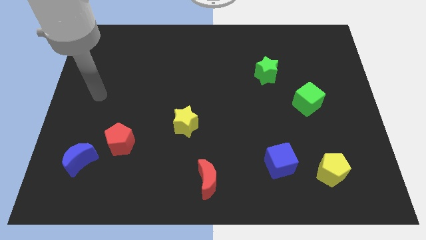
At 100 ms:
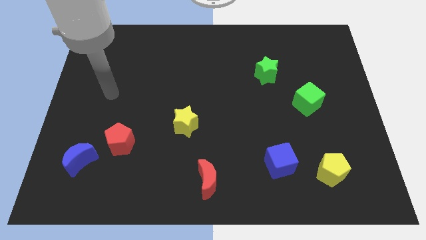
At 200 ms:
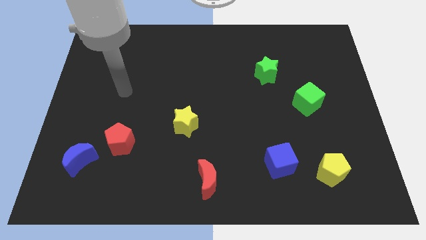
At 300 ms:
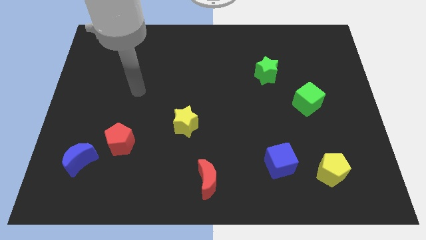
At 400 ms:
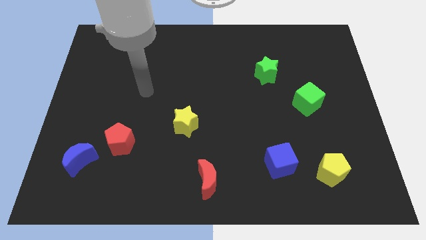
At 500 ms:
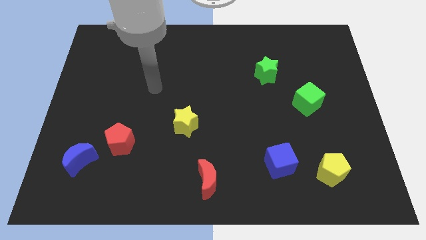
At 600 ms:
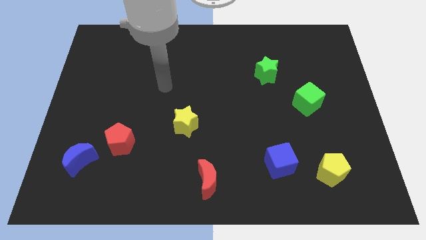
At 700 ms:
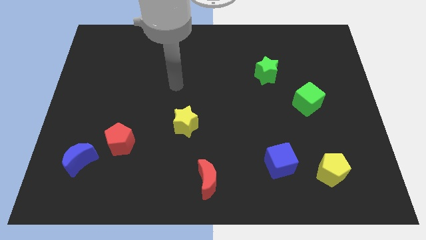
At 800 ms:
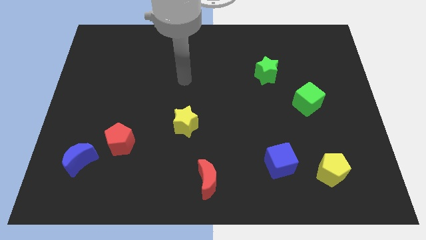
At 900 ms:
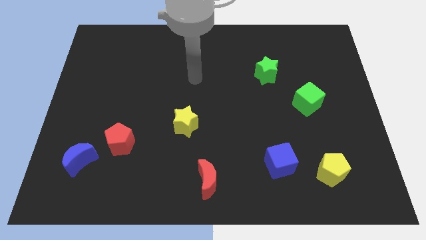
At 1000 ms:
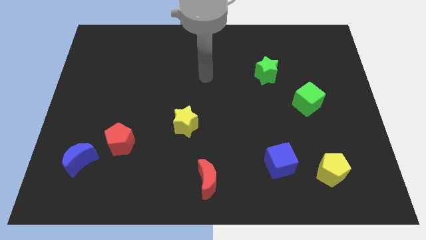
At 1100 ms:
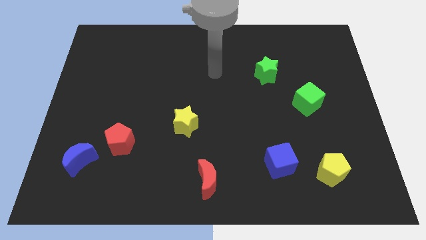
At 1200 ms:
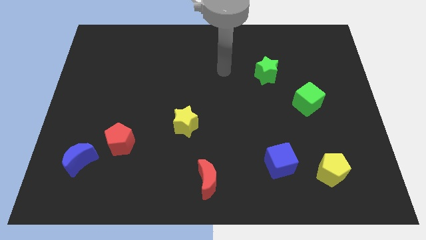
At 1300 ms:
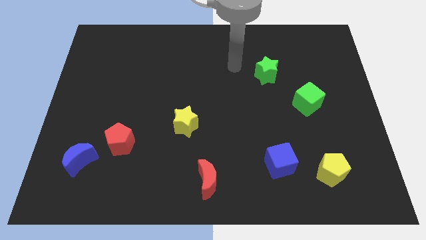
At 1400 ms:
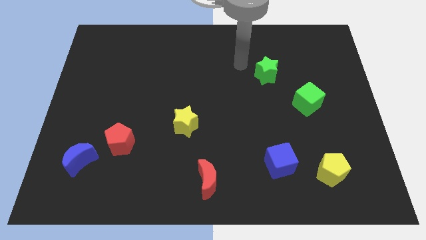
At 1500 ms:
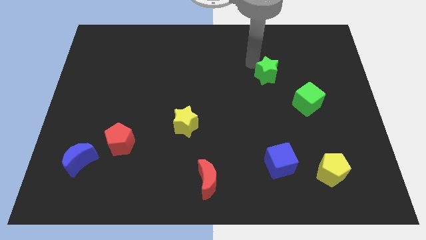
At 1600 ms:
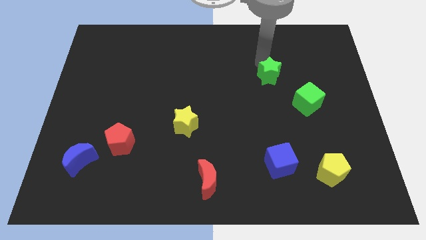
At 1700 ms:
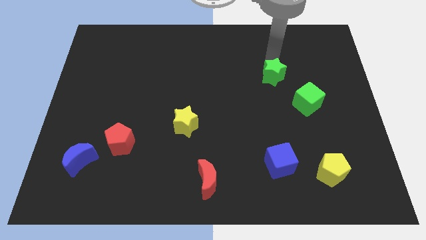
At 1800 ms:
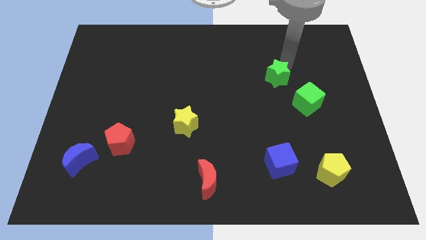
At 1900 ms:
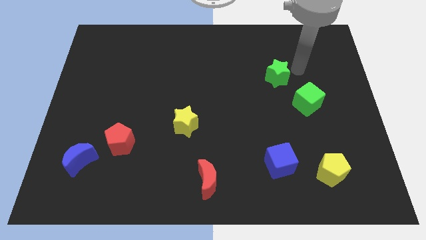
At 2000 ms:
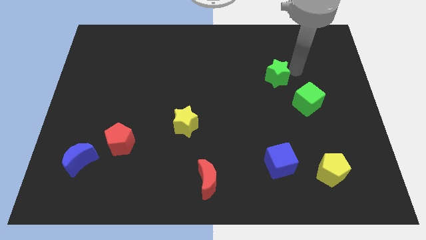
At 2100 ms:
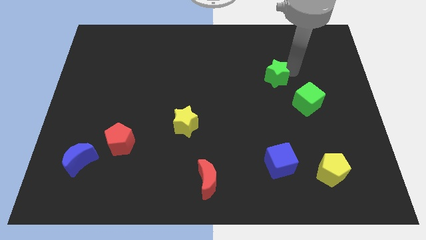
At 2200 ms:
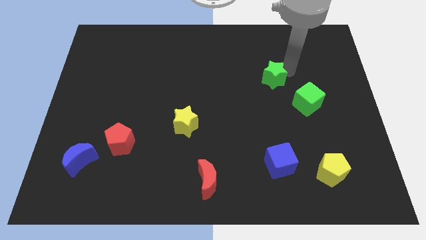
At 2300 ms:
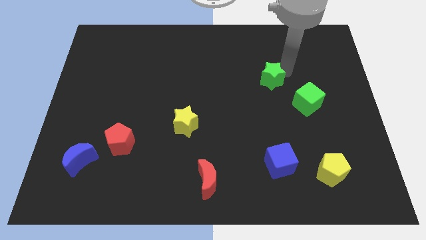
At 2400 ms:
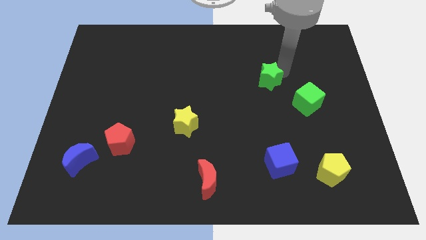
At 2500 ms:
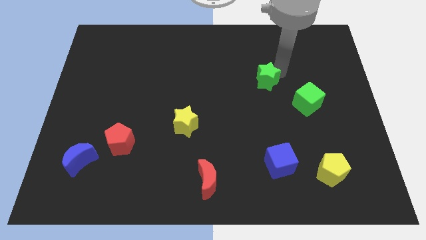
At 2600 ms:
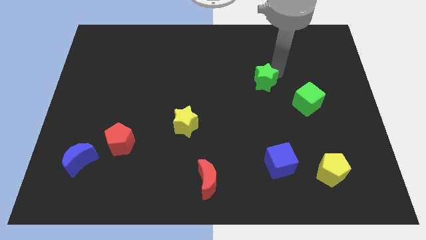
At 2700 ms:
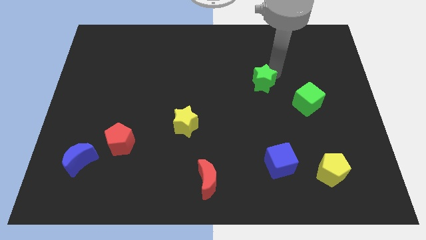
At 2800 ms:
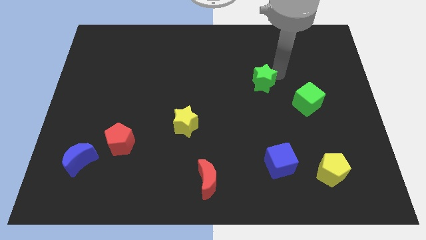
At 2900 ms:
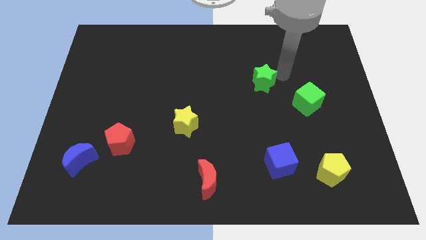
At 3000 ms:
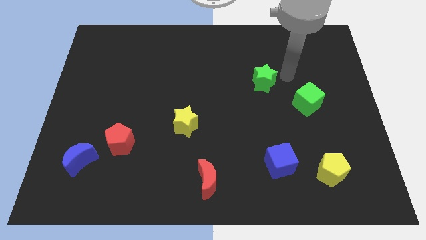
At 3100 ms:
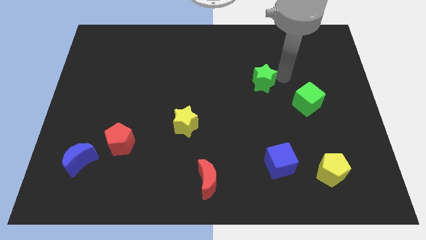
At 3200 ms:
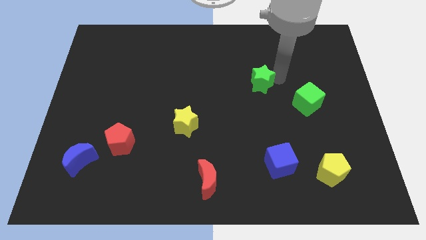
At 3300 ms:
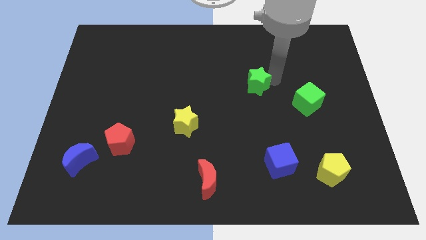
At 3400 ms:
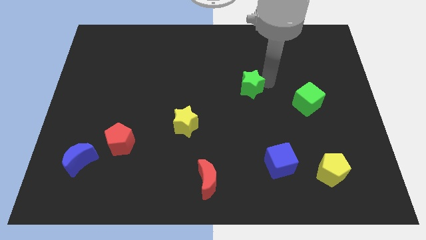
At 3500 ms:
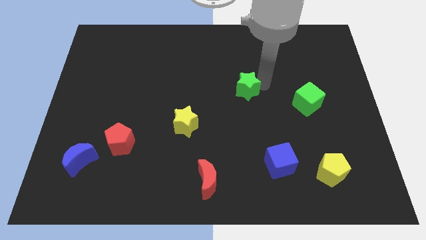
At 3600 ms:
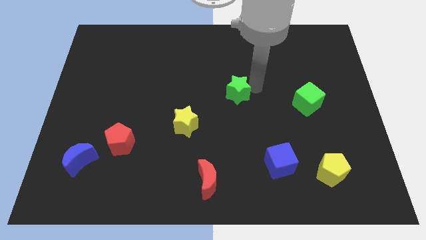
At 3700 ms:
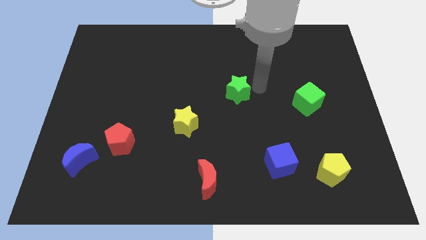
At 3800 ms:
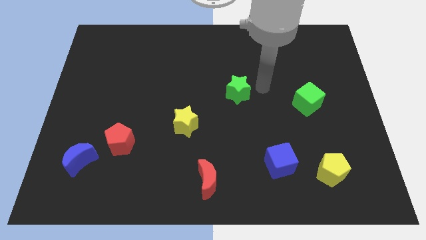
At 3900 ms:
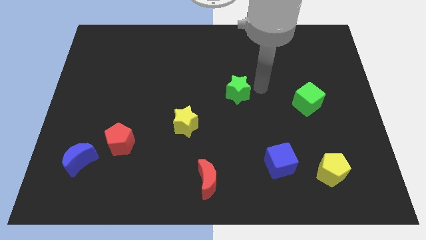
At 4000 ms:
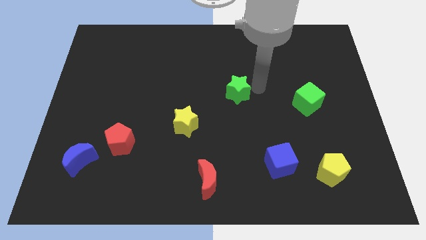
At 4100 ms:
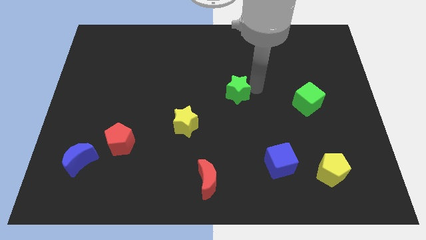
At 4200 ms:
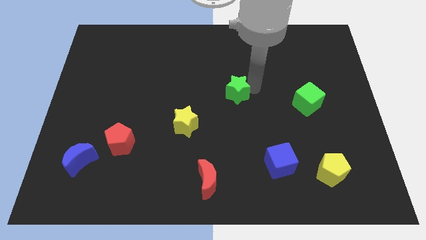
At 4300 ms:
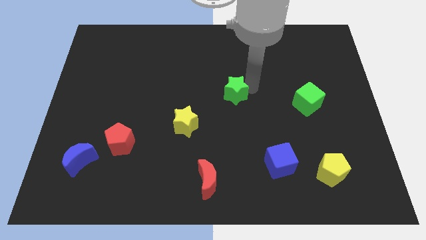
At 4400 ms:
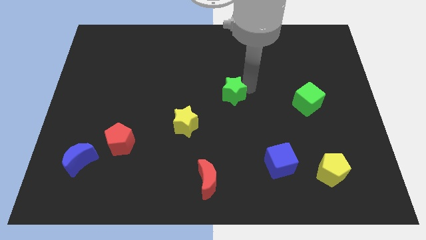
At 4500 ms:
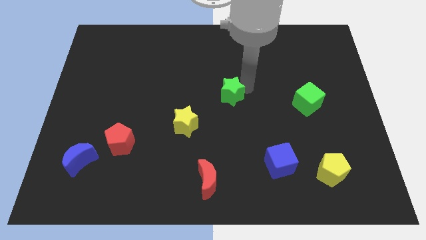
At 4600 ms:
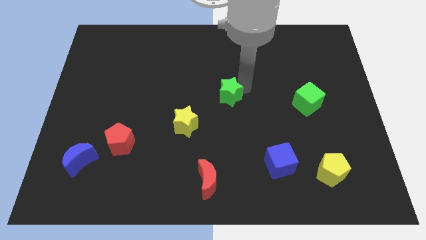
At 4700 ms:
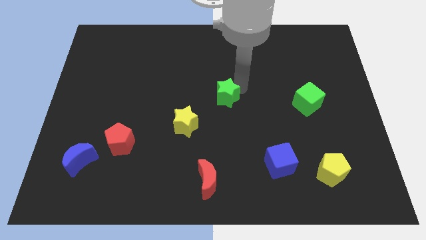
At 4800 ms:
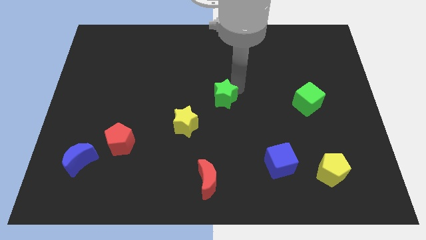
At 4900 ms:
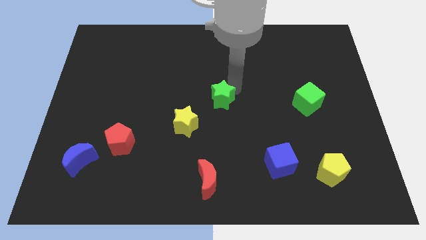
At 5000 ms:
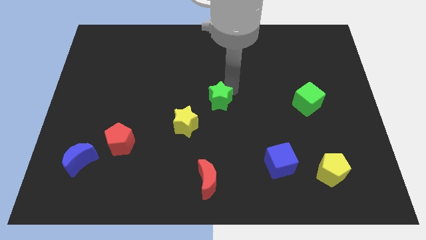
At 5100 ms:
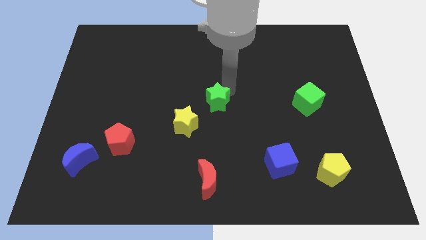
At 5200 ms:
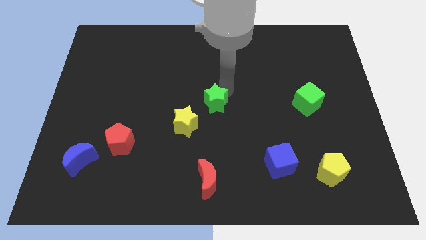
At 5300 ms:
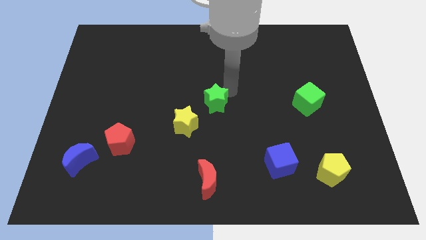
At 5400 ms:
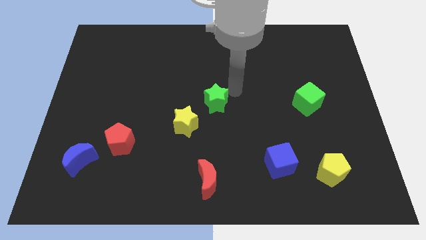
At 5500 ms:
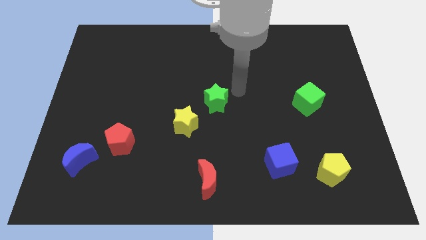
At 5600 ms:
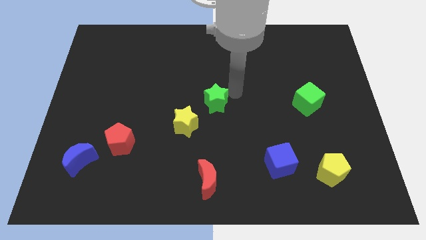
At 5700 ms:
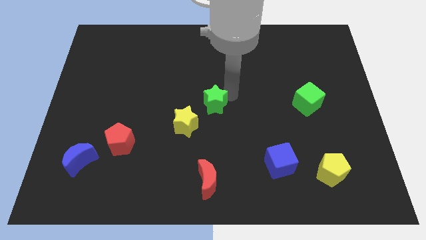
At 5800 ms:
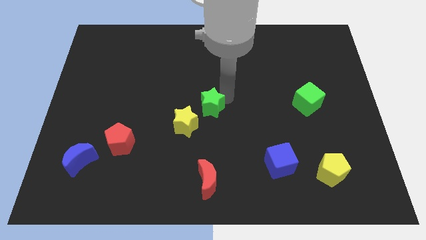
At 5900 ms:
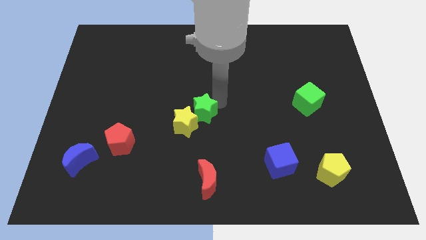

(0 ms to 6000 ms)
slide the green star next to the yellow star
